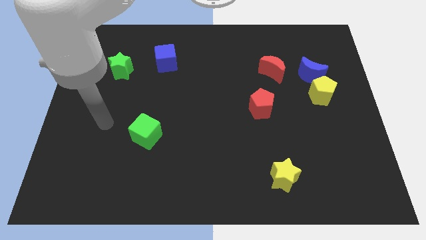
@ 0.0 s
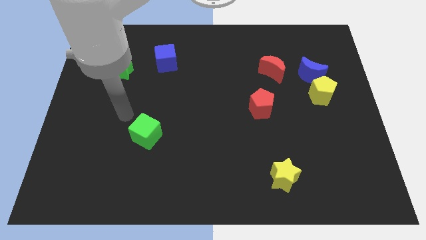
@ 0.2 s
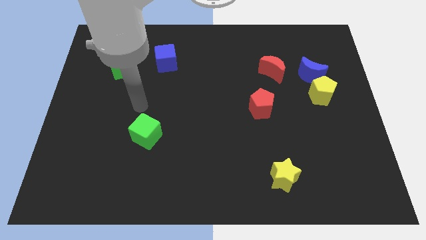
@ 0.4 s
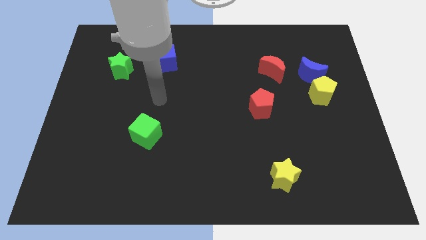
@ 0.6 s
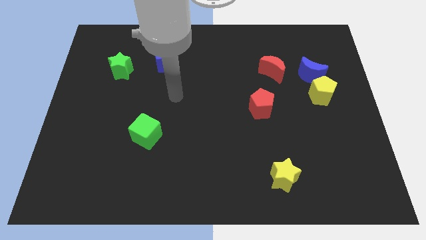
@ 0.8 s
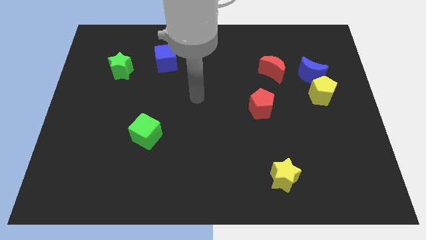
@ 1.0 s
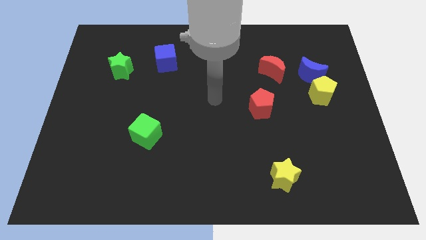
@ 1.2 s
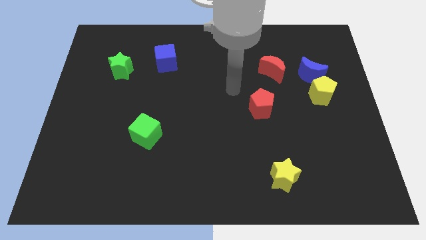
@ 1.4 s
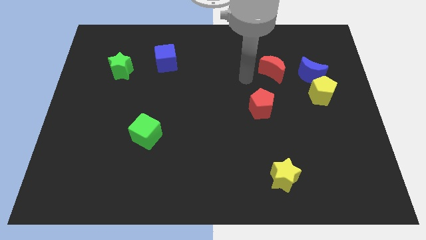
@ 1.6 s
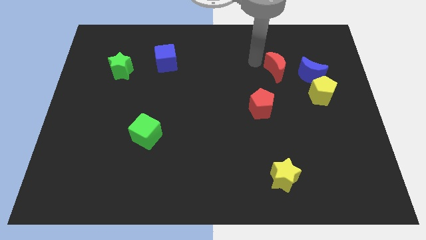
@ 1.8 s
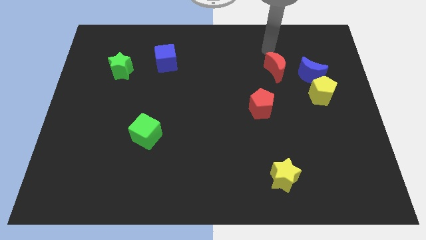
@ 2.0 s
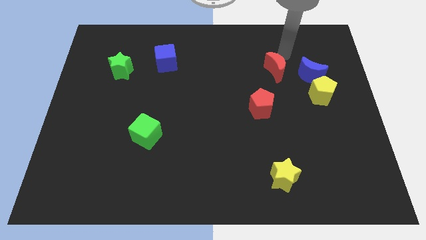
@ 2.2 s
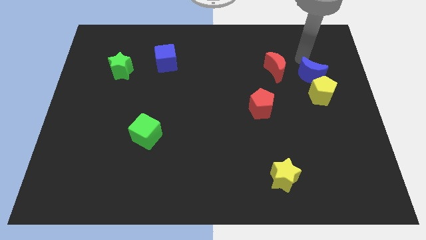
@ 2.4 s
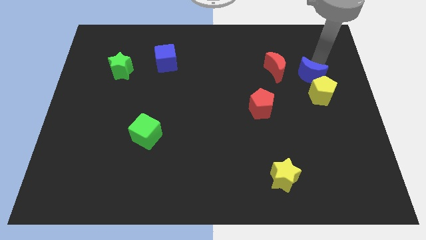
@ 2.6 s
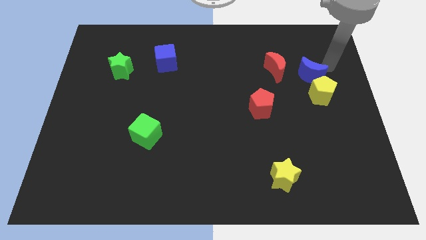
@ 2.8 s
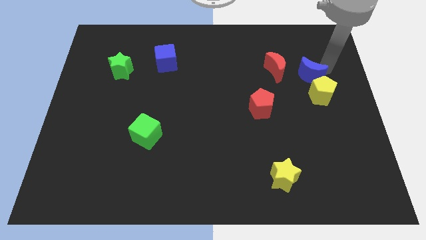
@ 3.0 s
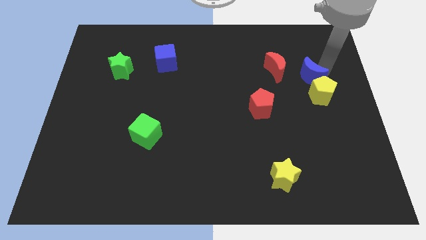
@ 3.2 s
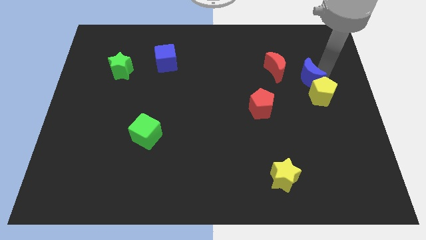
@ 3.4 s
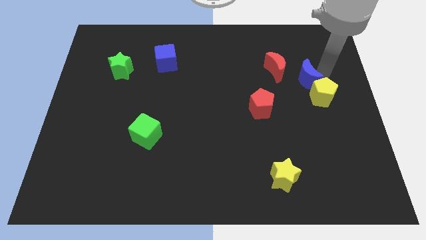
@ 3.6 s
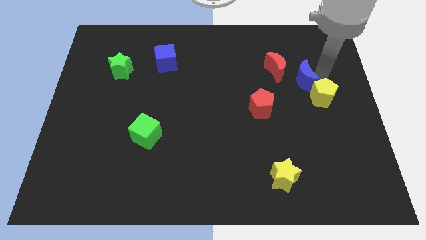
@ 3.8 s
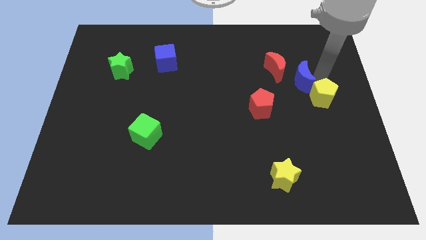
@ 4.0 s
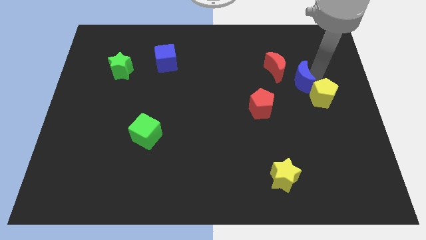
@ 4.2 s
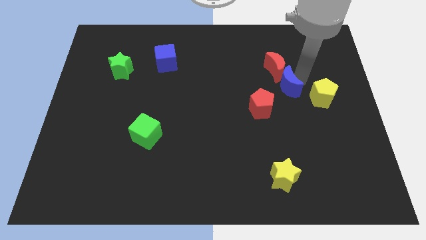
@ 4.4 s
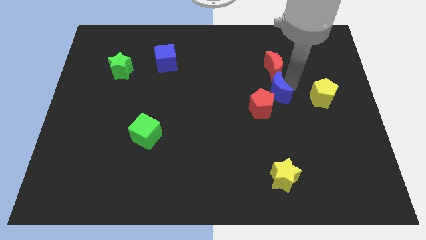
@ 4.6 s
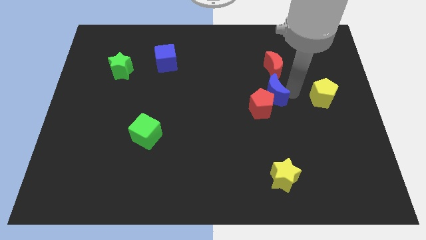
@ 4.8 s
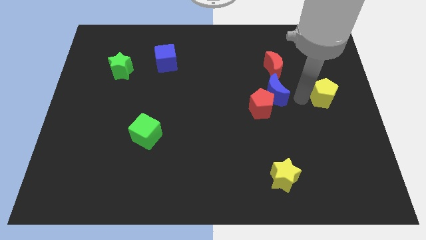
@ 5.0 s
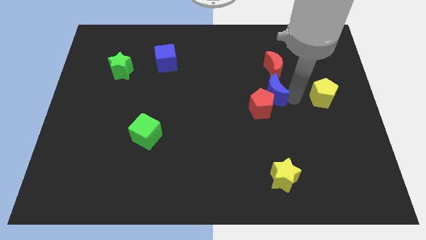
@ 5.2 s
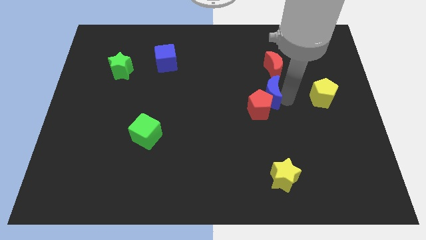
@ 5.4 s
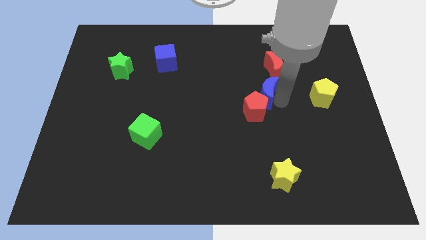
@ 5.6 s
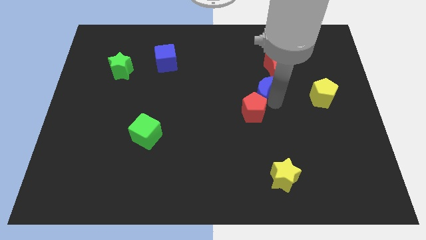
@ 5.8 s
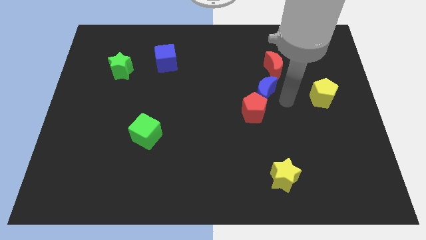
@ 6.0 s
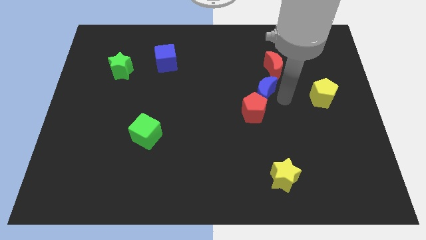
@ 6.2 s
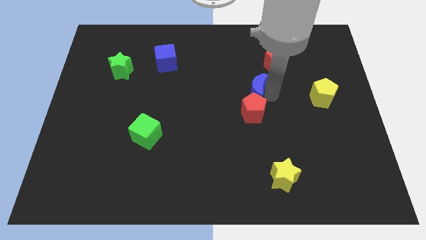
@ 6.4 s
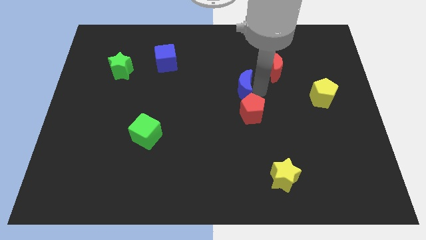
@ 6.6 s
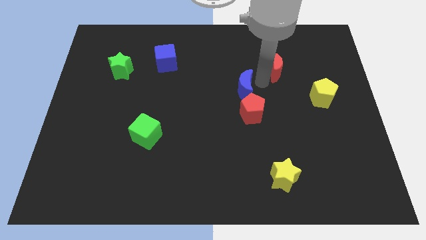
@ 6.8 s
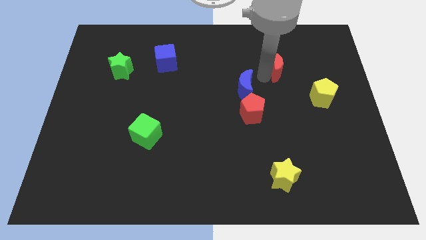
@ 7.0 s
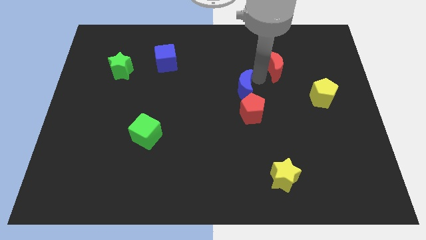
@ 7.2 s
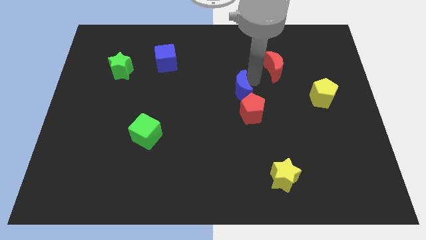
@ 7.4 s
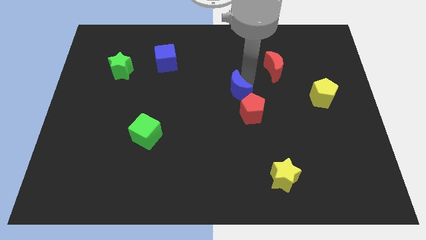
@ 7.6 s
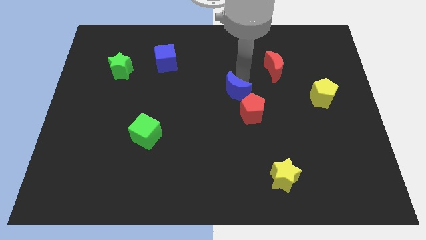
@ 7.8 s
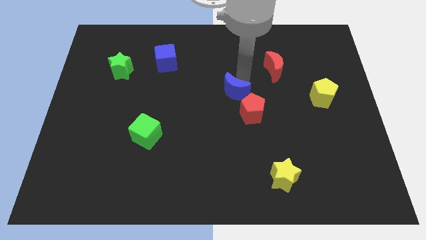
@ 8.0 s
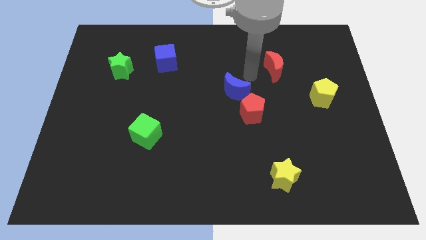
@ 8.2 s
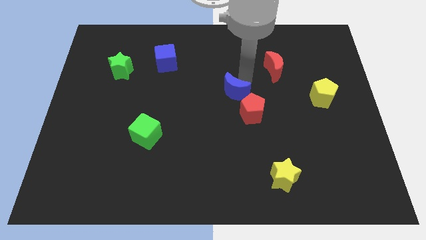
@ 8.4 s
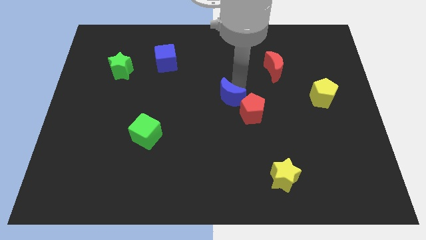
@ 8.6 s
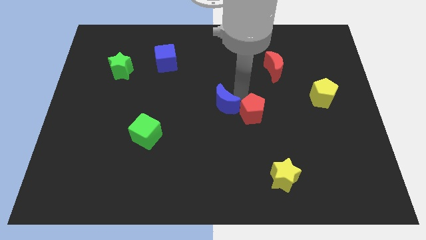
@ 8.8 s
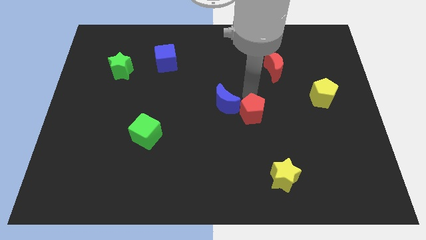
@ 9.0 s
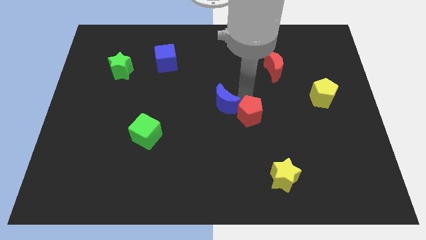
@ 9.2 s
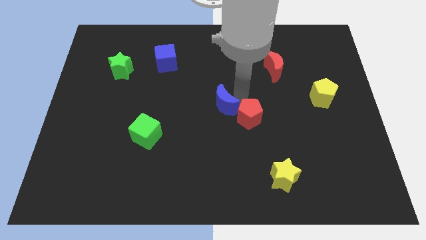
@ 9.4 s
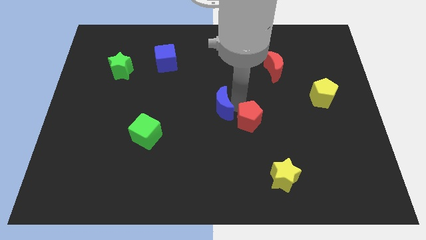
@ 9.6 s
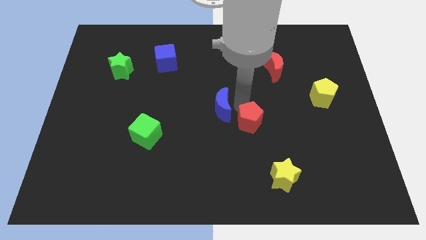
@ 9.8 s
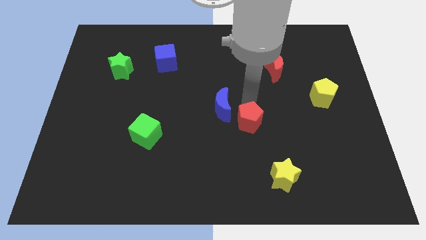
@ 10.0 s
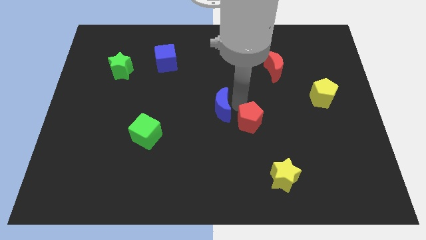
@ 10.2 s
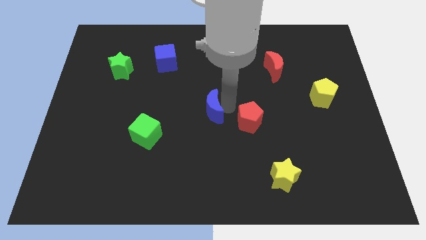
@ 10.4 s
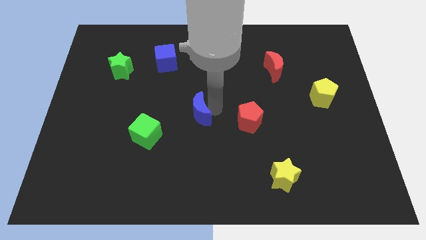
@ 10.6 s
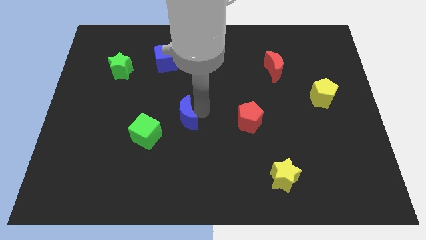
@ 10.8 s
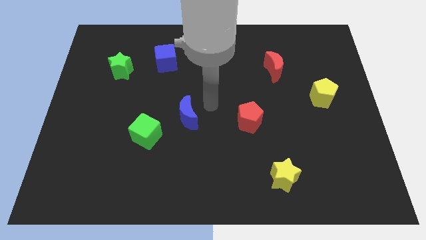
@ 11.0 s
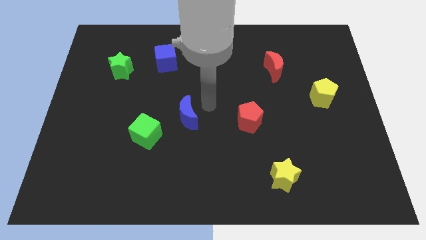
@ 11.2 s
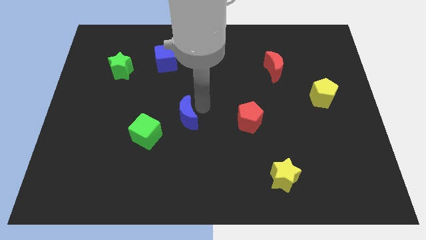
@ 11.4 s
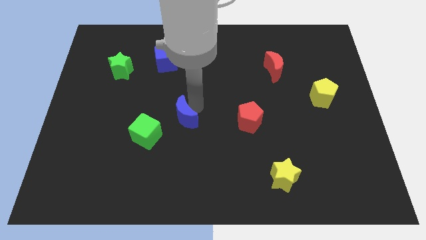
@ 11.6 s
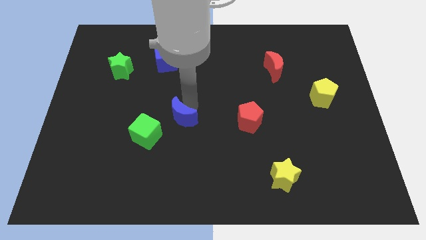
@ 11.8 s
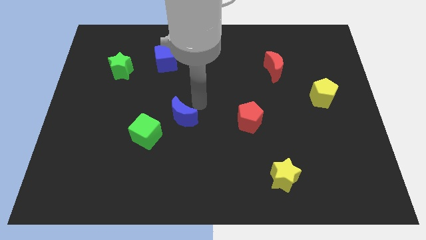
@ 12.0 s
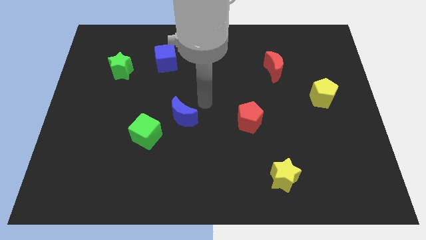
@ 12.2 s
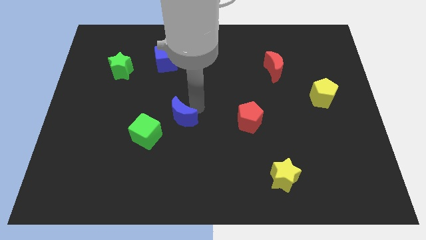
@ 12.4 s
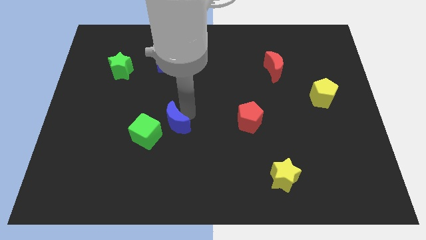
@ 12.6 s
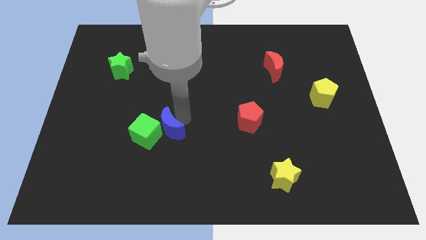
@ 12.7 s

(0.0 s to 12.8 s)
slide the blue moon close to the green cube
